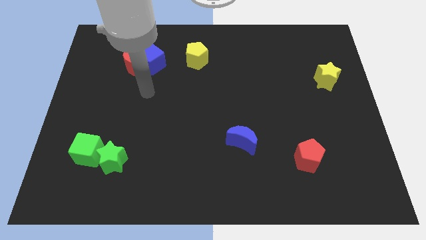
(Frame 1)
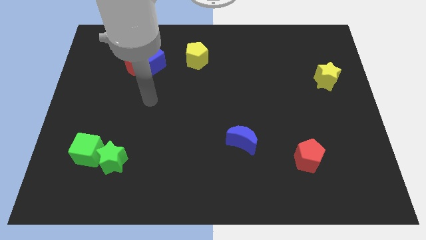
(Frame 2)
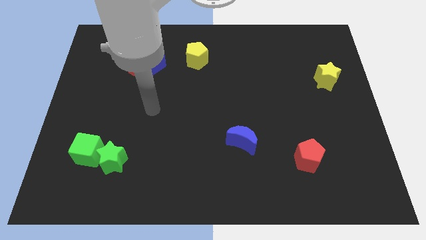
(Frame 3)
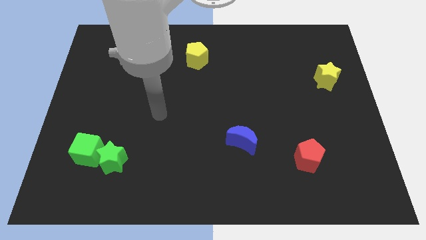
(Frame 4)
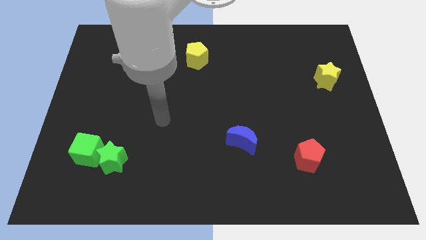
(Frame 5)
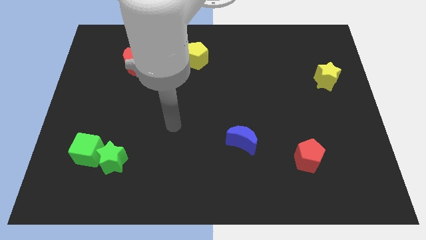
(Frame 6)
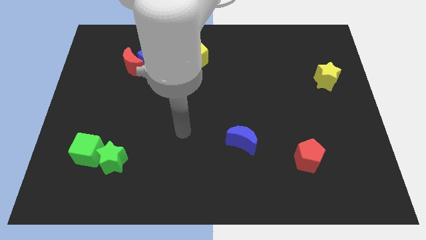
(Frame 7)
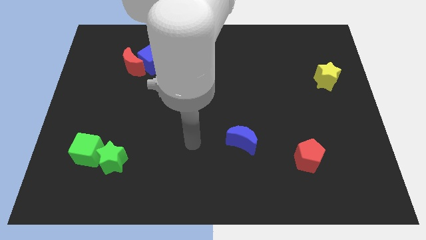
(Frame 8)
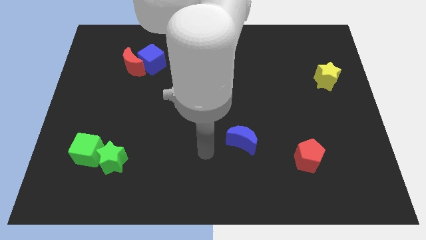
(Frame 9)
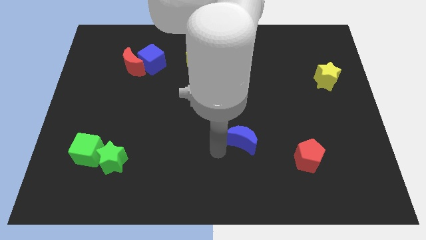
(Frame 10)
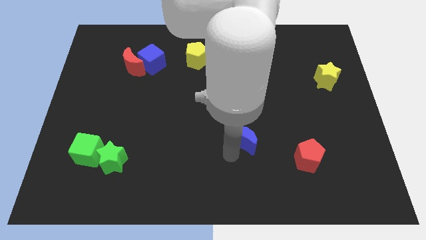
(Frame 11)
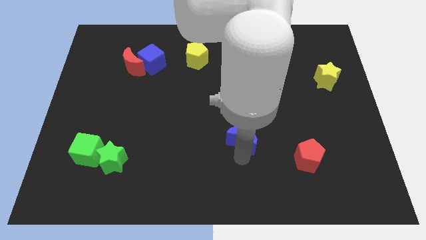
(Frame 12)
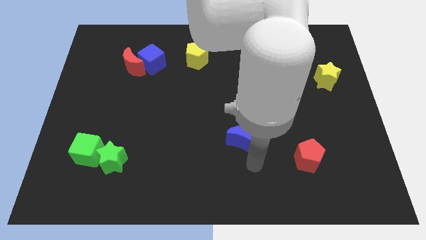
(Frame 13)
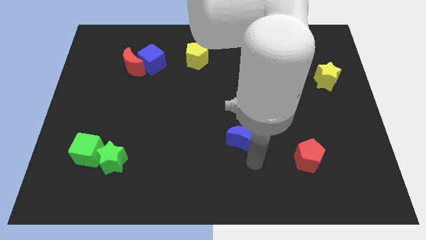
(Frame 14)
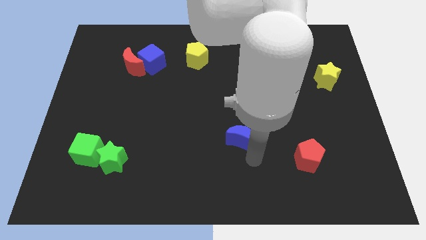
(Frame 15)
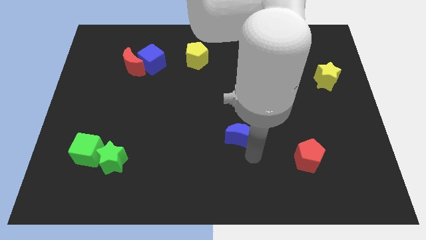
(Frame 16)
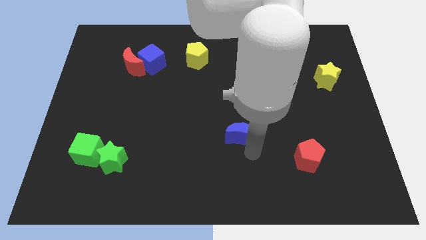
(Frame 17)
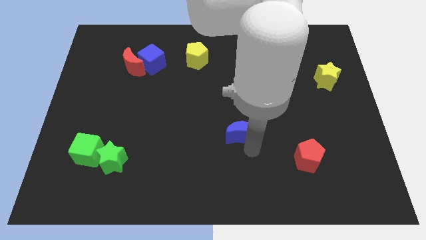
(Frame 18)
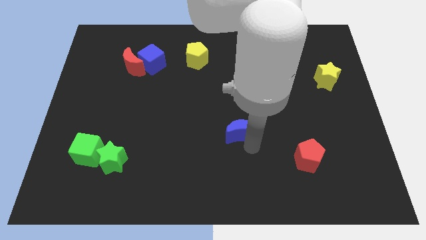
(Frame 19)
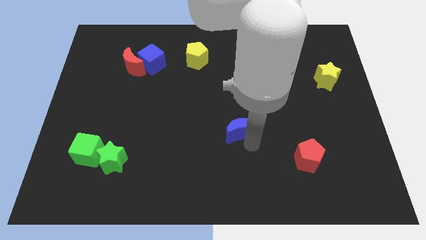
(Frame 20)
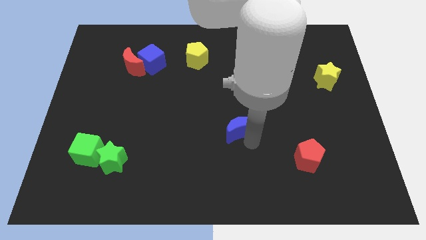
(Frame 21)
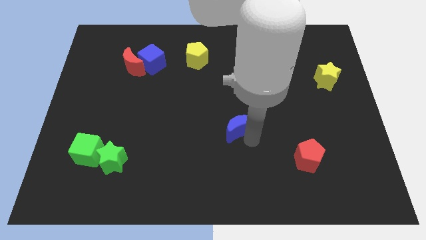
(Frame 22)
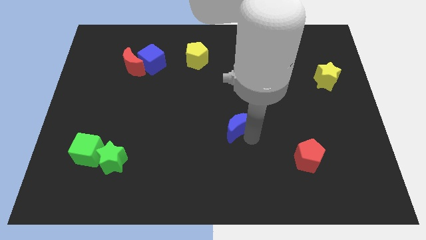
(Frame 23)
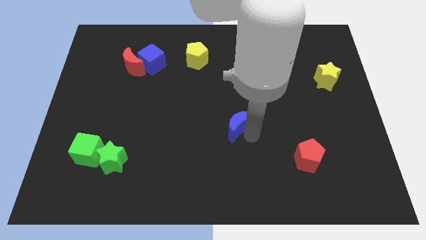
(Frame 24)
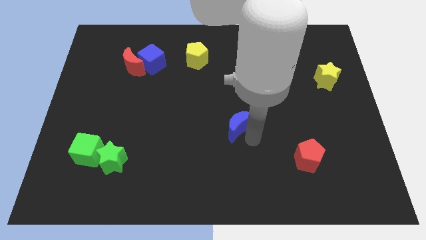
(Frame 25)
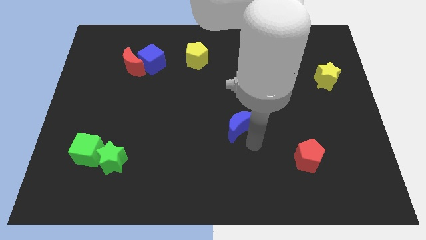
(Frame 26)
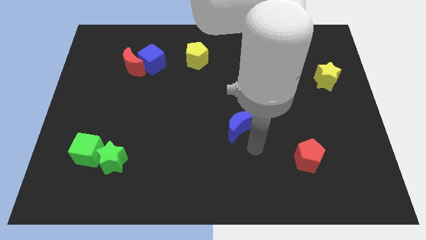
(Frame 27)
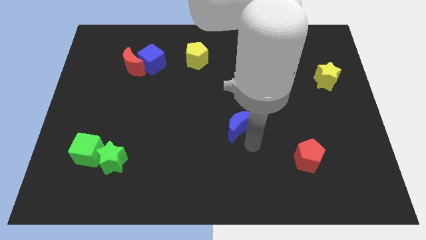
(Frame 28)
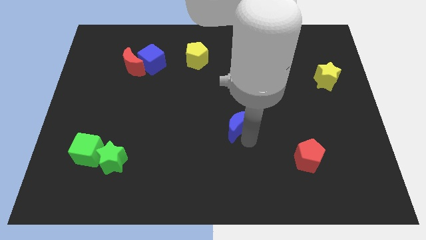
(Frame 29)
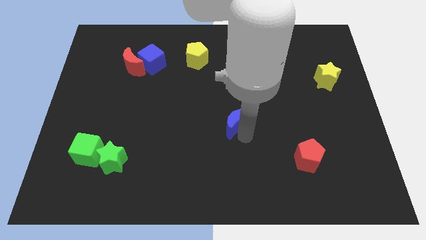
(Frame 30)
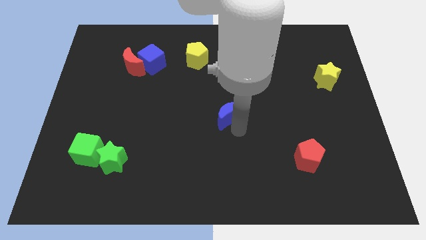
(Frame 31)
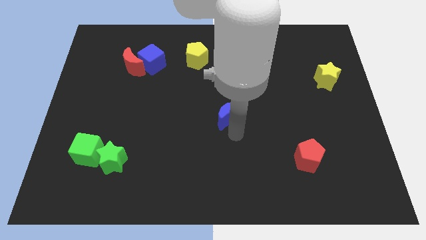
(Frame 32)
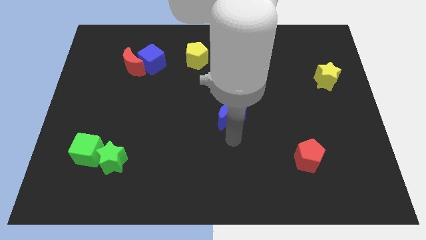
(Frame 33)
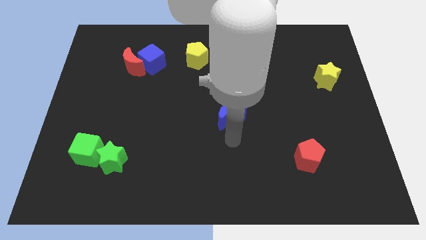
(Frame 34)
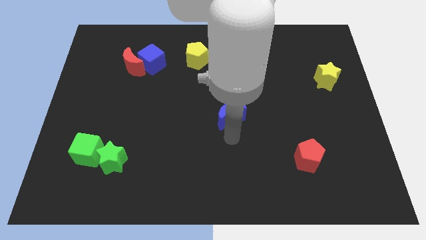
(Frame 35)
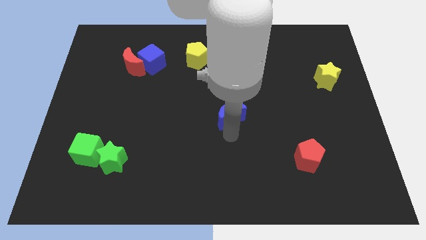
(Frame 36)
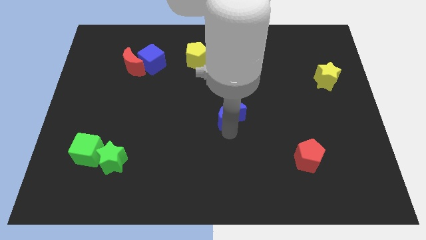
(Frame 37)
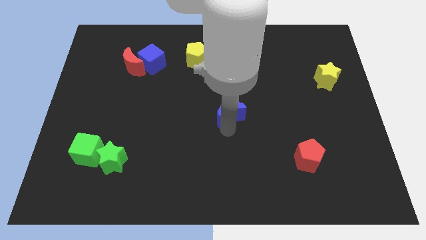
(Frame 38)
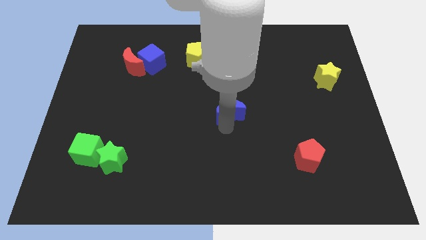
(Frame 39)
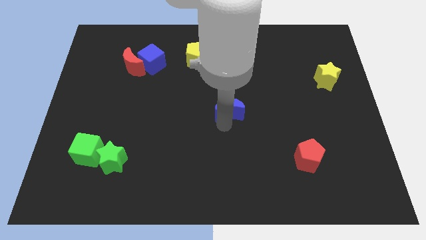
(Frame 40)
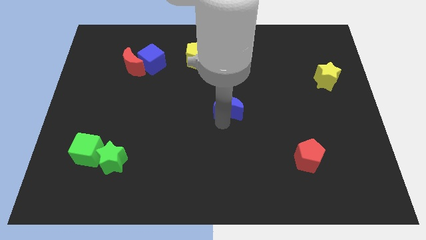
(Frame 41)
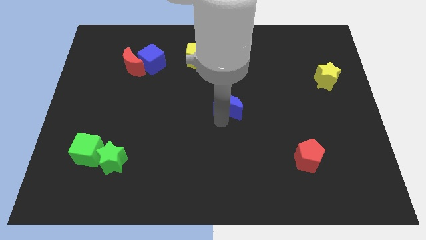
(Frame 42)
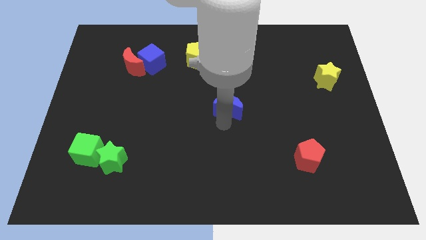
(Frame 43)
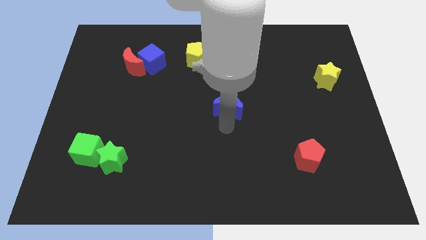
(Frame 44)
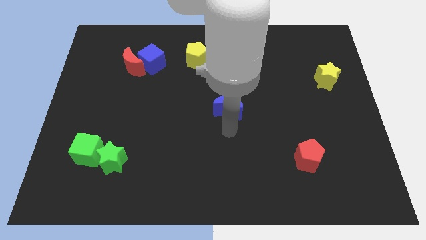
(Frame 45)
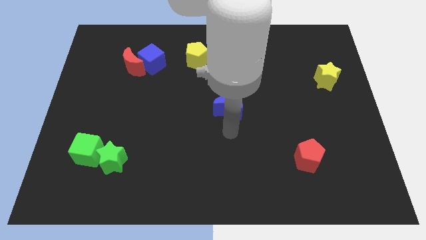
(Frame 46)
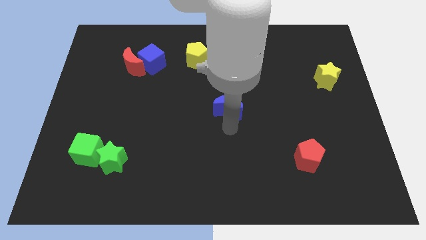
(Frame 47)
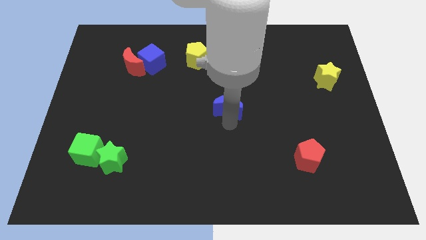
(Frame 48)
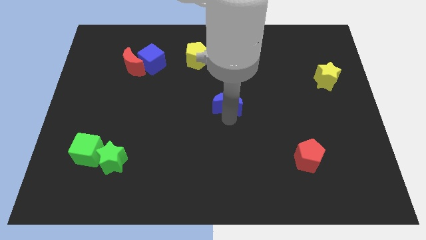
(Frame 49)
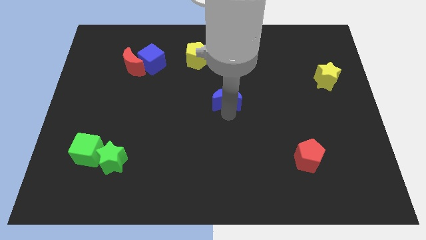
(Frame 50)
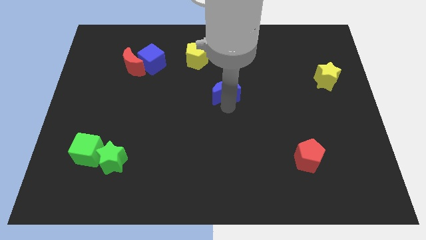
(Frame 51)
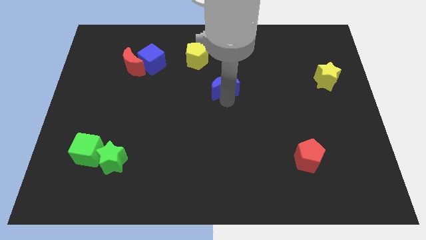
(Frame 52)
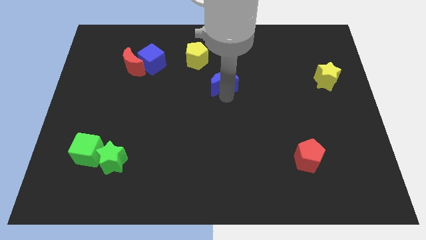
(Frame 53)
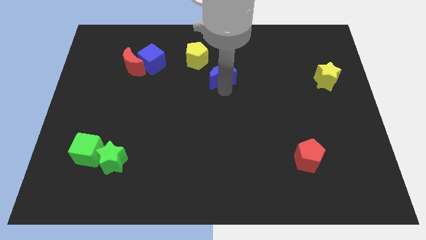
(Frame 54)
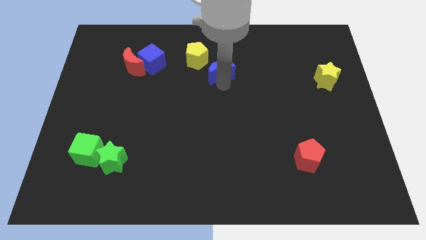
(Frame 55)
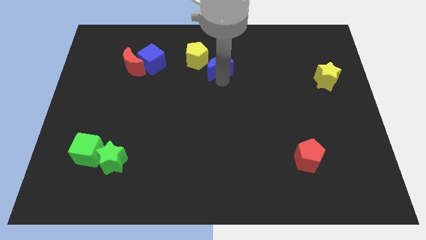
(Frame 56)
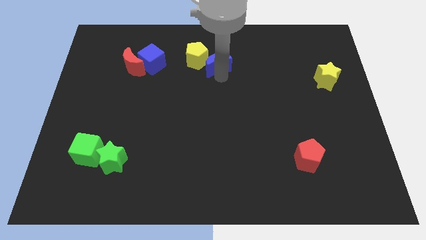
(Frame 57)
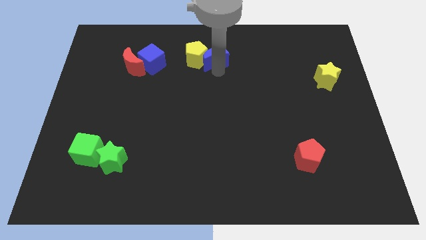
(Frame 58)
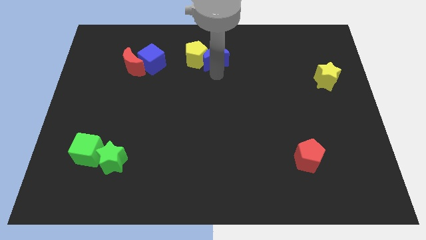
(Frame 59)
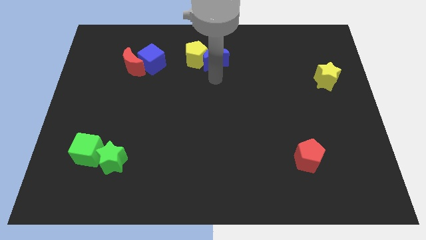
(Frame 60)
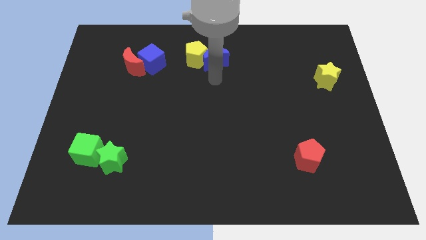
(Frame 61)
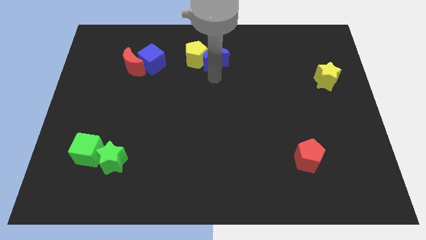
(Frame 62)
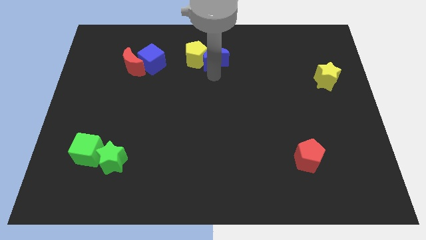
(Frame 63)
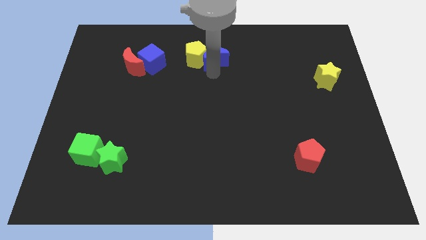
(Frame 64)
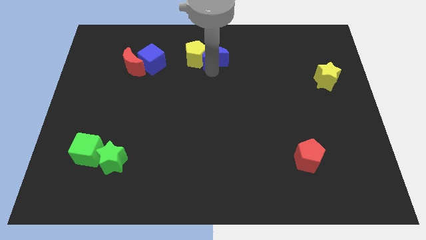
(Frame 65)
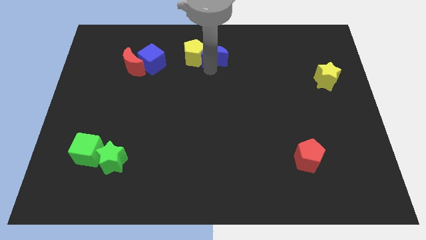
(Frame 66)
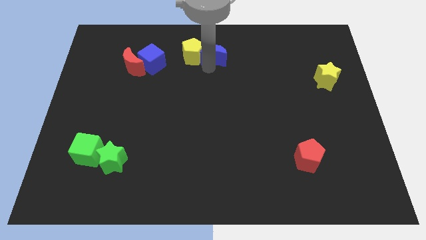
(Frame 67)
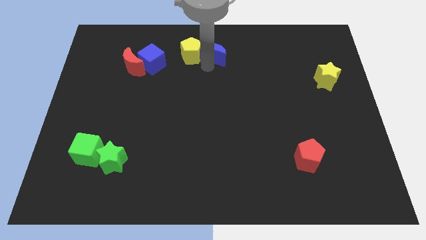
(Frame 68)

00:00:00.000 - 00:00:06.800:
slide the blue moon to the top side
